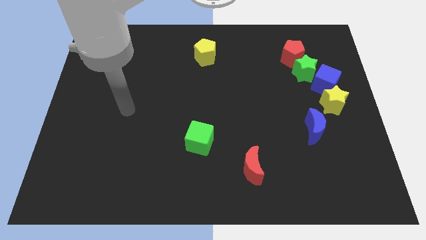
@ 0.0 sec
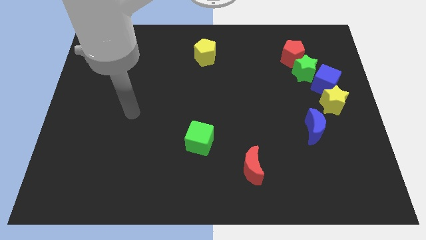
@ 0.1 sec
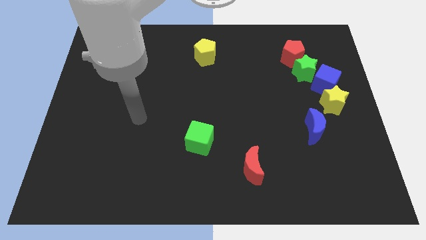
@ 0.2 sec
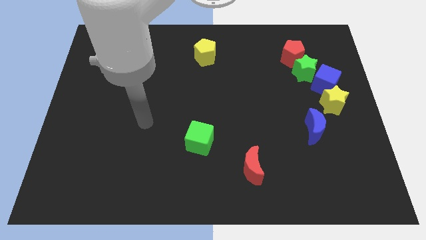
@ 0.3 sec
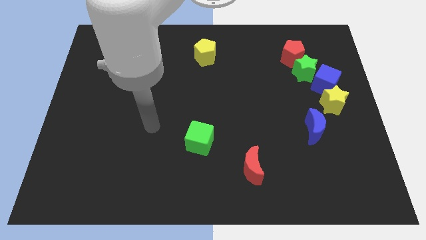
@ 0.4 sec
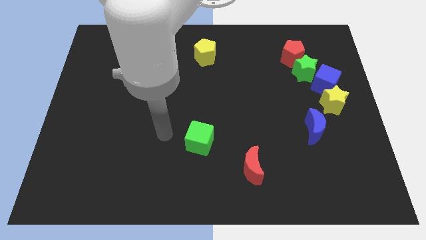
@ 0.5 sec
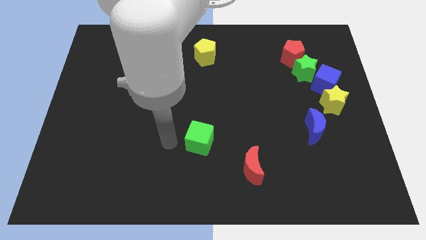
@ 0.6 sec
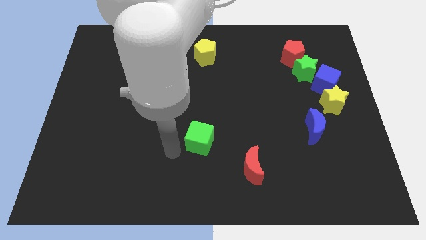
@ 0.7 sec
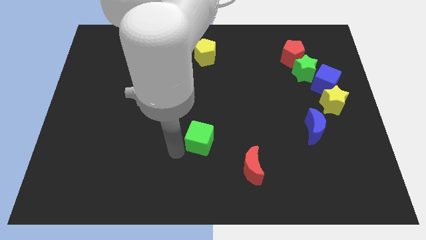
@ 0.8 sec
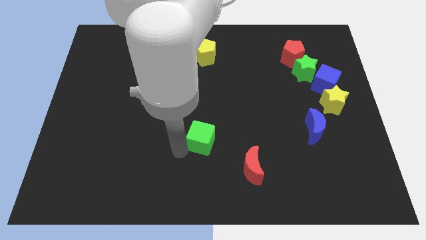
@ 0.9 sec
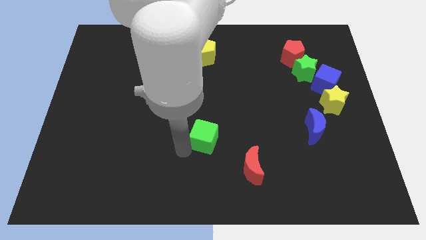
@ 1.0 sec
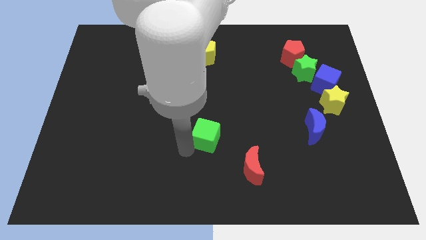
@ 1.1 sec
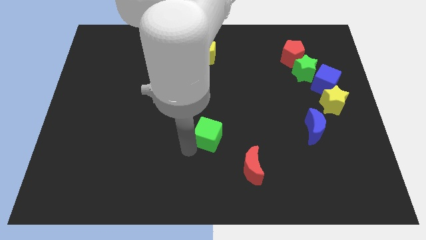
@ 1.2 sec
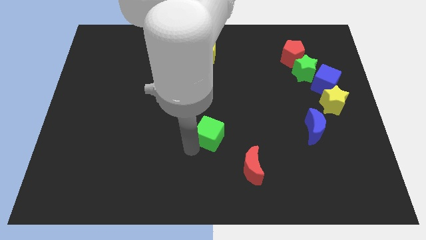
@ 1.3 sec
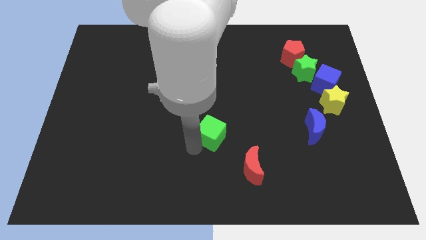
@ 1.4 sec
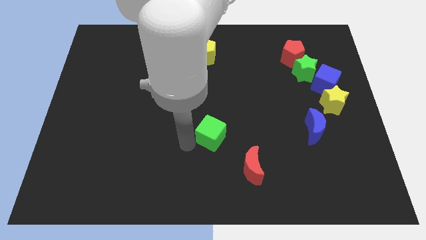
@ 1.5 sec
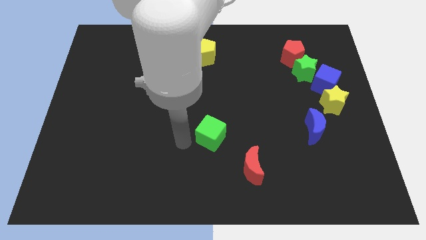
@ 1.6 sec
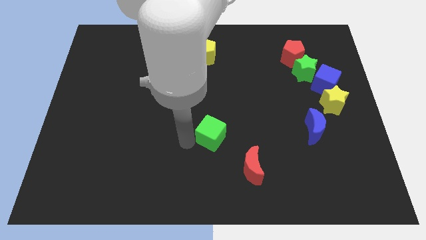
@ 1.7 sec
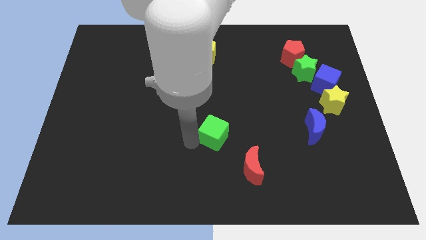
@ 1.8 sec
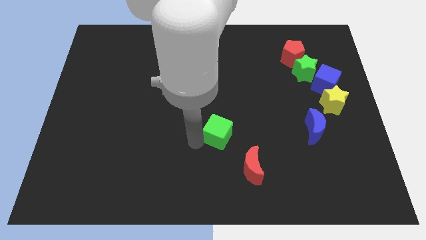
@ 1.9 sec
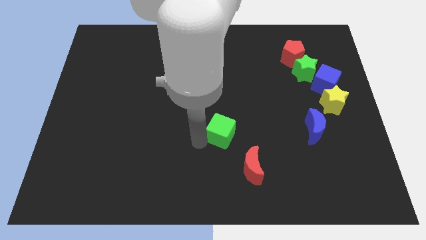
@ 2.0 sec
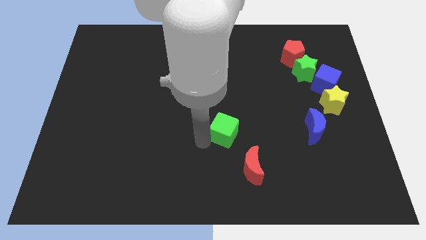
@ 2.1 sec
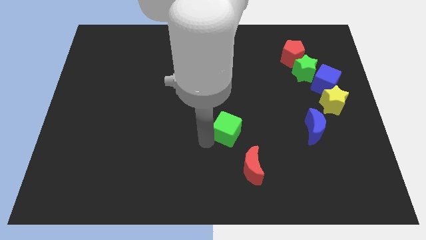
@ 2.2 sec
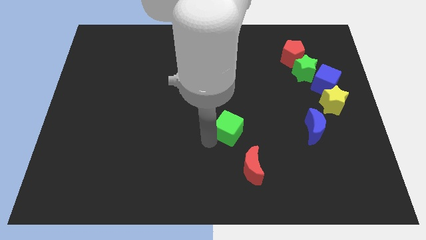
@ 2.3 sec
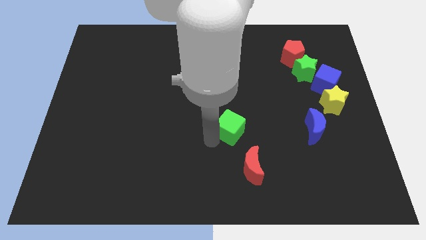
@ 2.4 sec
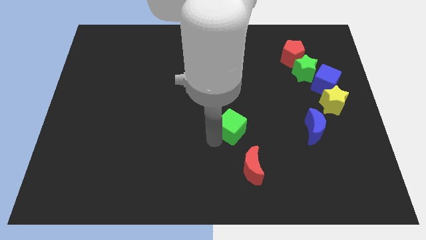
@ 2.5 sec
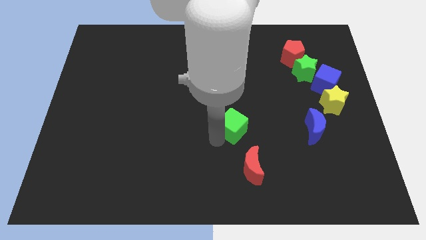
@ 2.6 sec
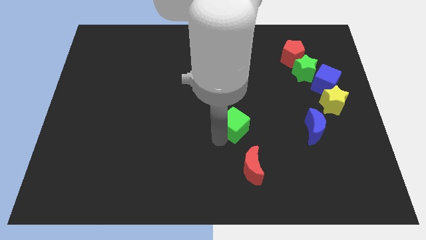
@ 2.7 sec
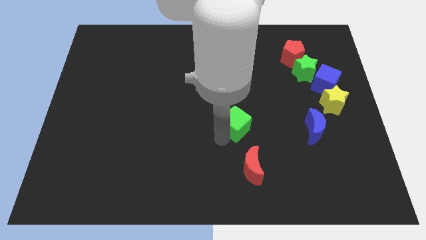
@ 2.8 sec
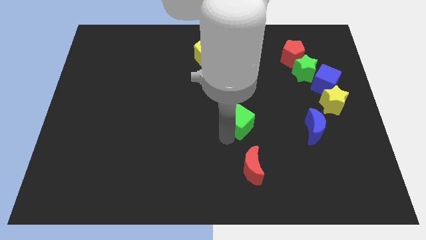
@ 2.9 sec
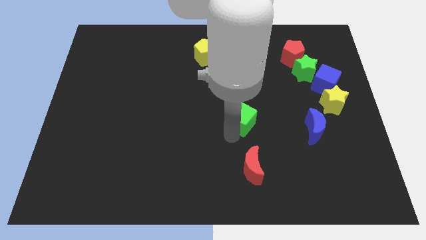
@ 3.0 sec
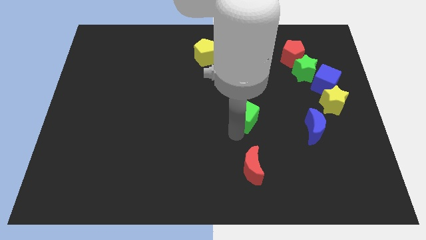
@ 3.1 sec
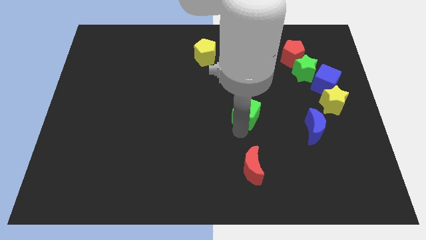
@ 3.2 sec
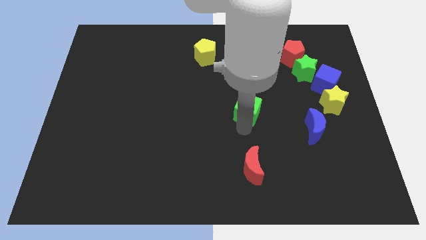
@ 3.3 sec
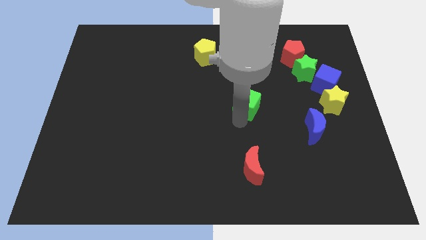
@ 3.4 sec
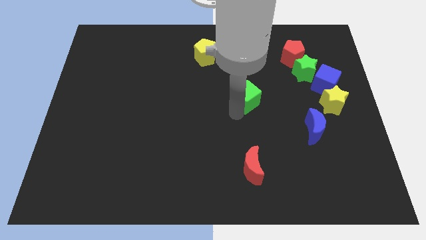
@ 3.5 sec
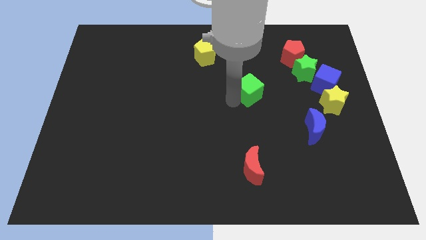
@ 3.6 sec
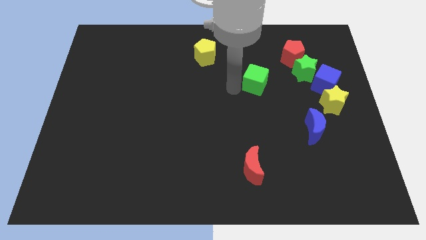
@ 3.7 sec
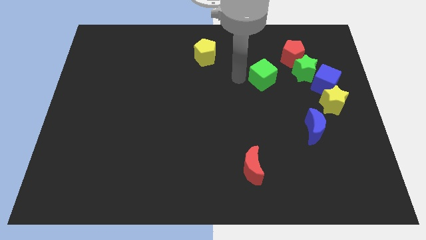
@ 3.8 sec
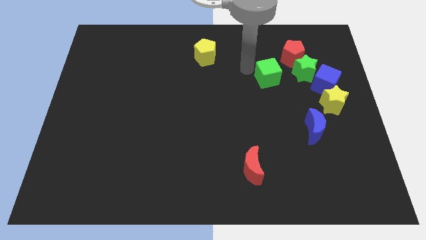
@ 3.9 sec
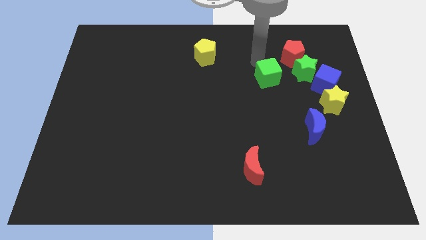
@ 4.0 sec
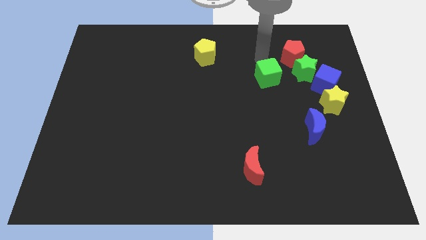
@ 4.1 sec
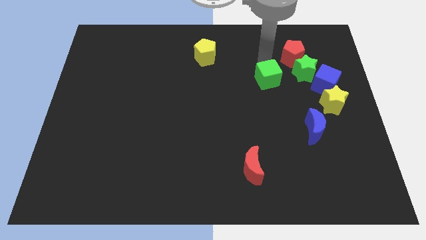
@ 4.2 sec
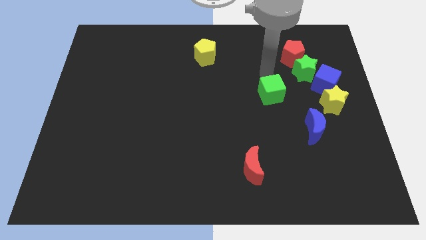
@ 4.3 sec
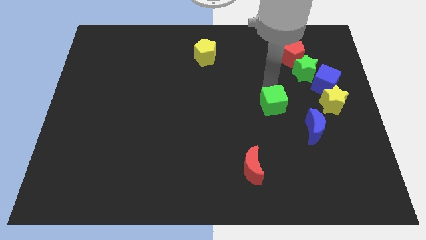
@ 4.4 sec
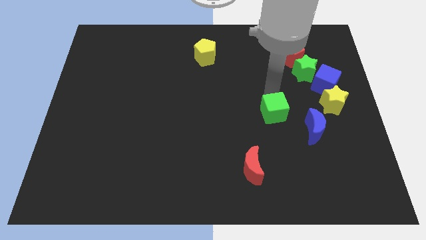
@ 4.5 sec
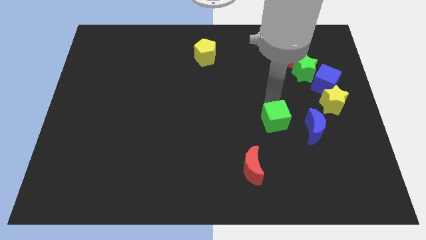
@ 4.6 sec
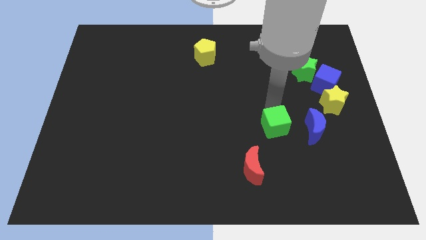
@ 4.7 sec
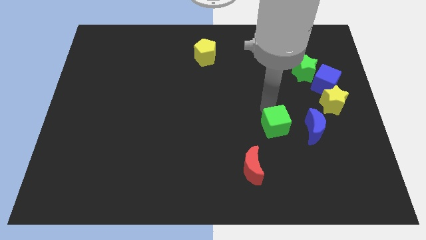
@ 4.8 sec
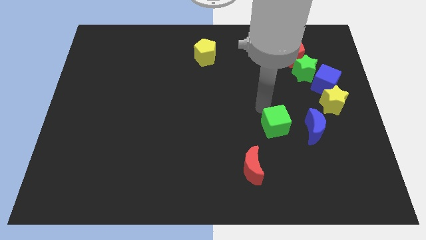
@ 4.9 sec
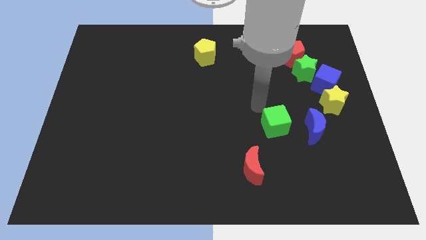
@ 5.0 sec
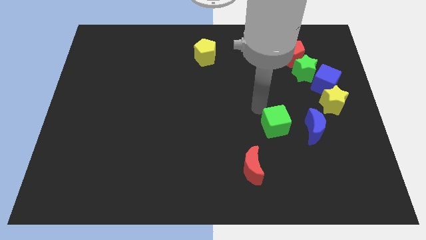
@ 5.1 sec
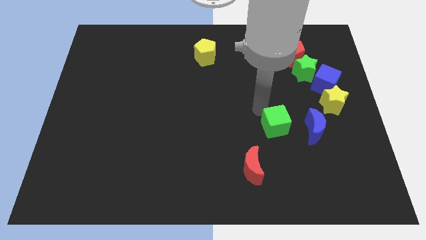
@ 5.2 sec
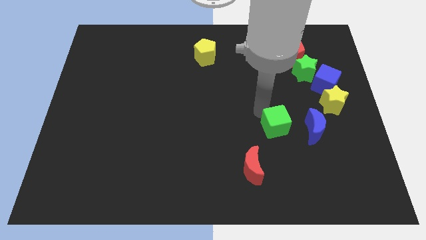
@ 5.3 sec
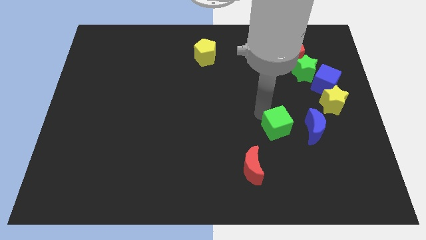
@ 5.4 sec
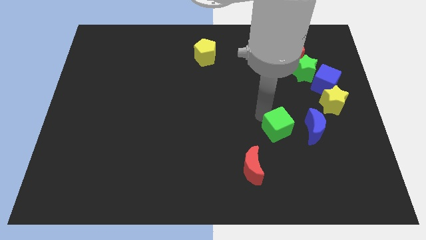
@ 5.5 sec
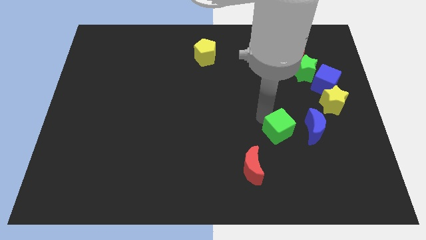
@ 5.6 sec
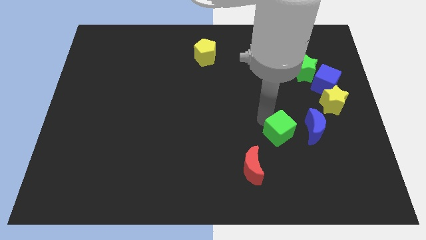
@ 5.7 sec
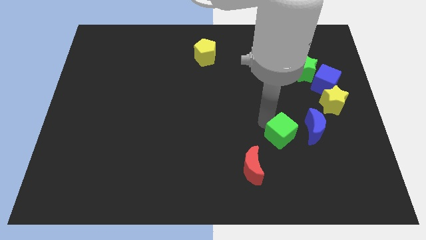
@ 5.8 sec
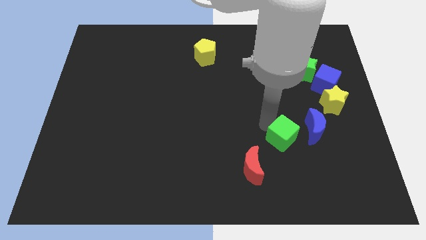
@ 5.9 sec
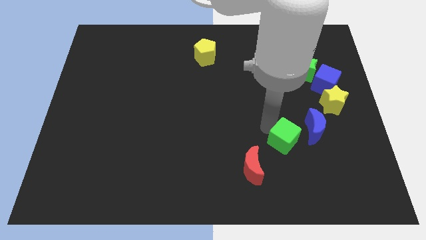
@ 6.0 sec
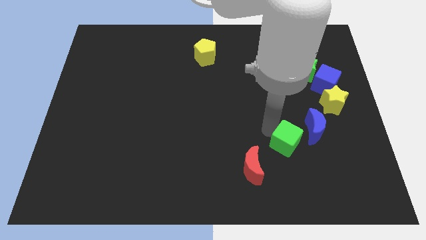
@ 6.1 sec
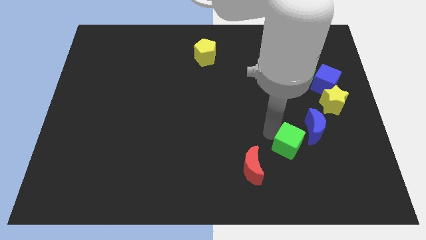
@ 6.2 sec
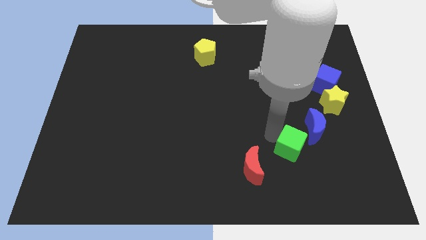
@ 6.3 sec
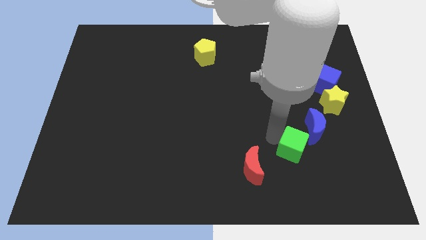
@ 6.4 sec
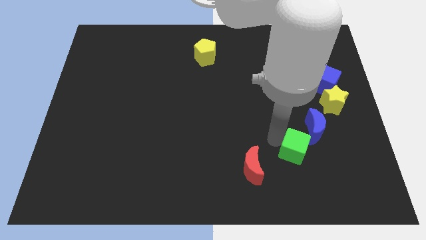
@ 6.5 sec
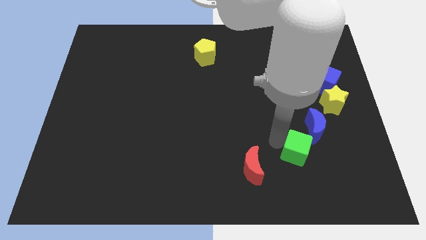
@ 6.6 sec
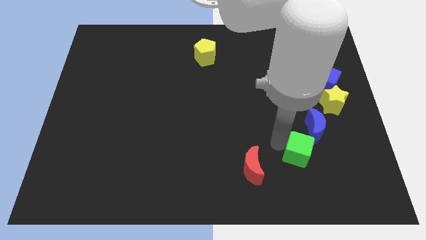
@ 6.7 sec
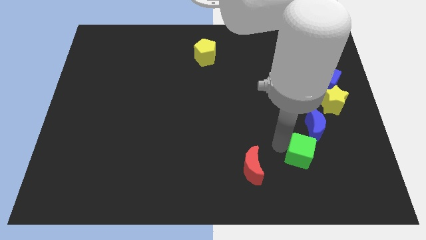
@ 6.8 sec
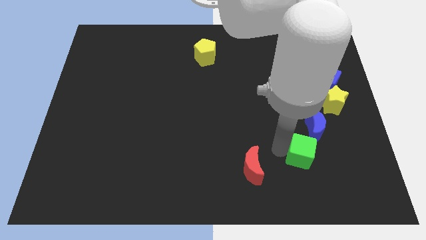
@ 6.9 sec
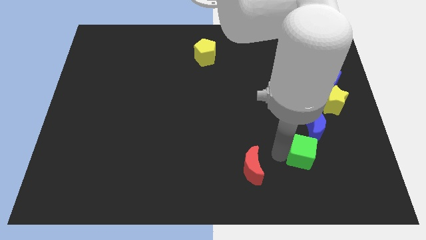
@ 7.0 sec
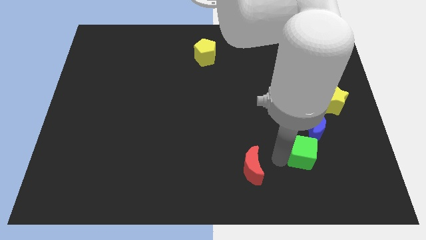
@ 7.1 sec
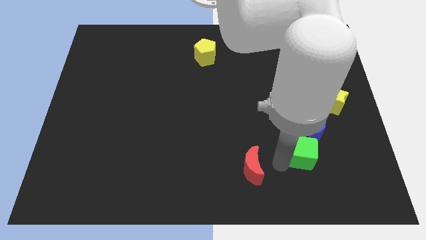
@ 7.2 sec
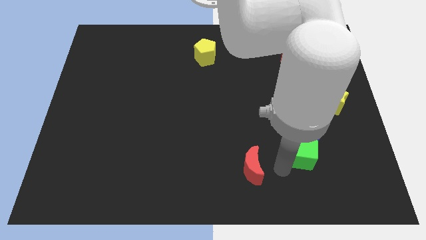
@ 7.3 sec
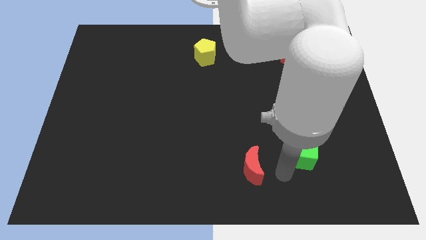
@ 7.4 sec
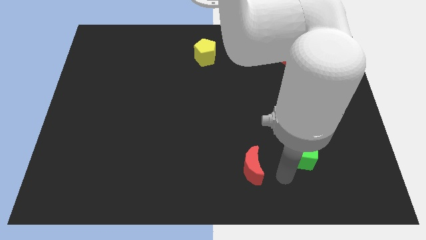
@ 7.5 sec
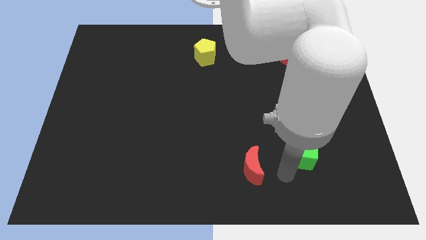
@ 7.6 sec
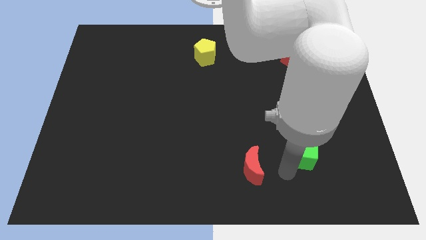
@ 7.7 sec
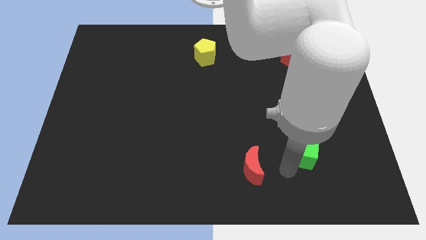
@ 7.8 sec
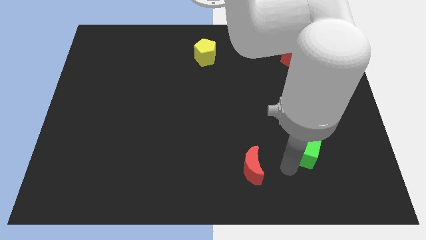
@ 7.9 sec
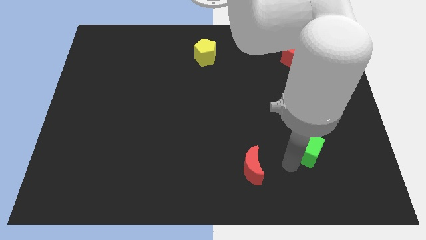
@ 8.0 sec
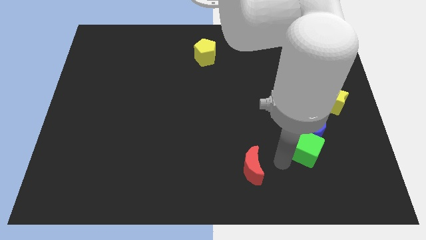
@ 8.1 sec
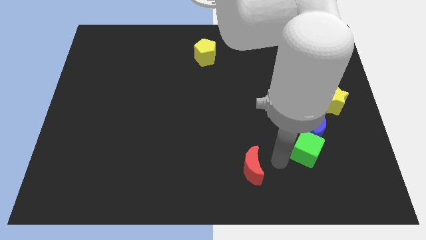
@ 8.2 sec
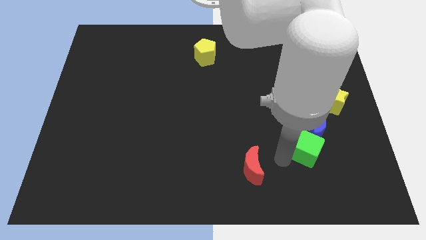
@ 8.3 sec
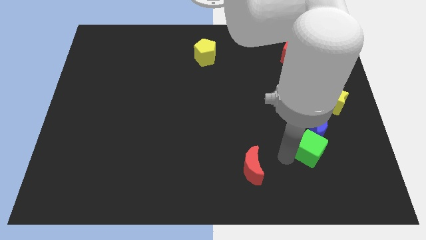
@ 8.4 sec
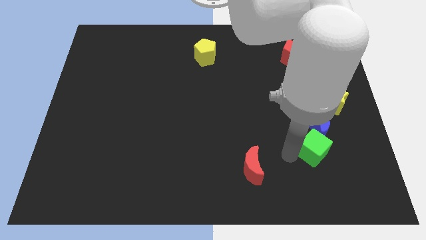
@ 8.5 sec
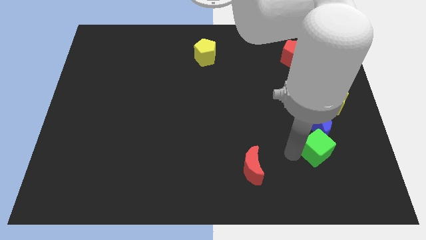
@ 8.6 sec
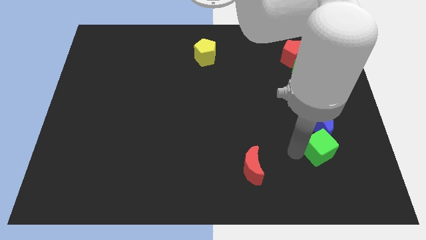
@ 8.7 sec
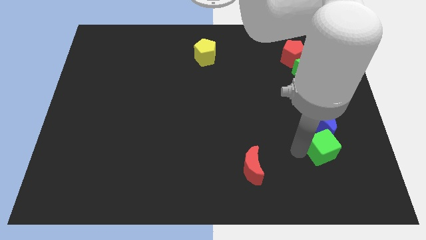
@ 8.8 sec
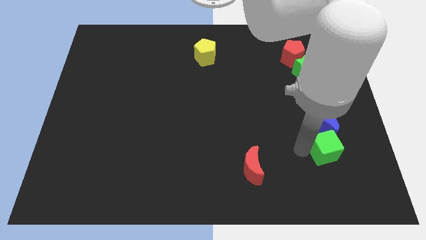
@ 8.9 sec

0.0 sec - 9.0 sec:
slide the green cube below the yellow star
